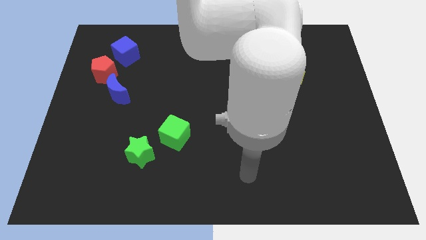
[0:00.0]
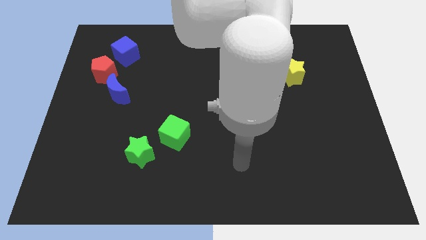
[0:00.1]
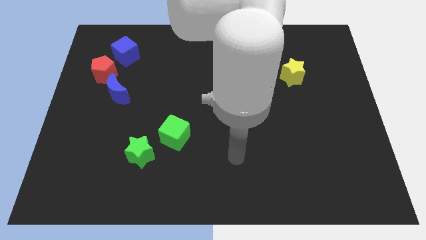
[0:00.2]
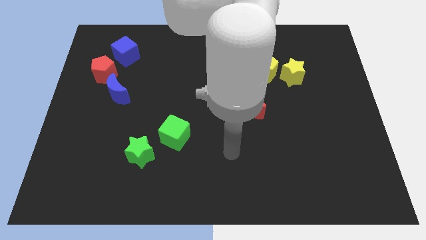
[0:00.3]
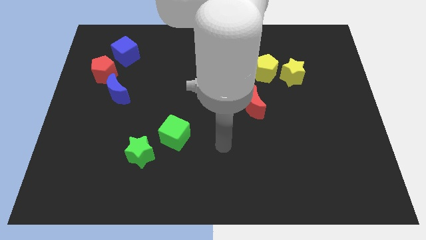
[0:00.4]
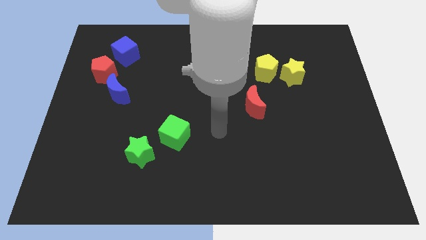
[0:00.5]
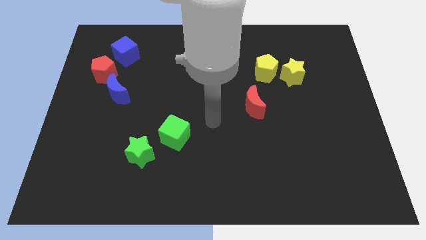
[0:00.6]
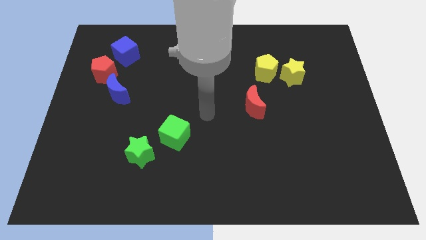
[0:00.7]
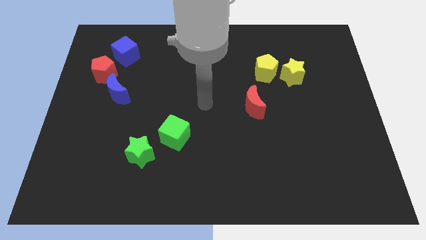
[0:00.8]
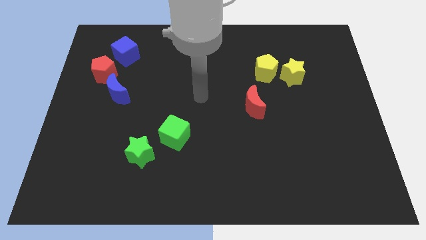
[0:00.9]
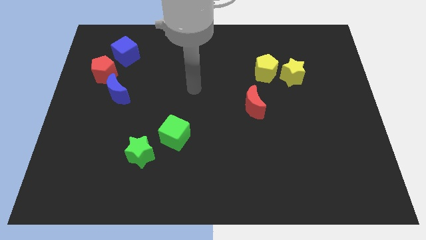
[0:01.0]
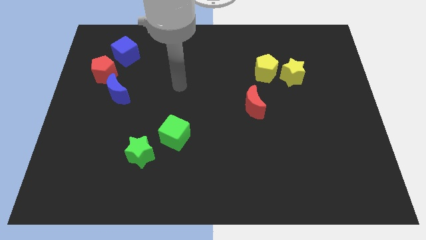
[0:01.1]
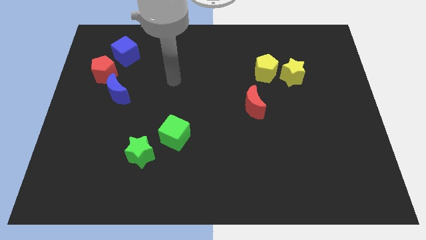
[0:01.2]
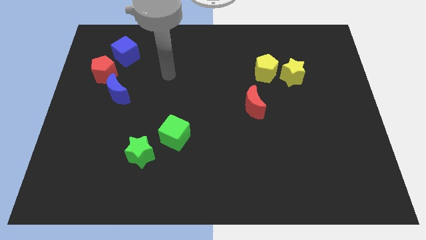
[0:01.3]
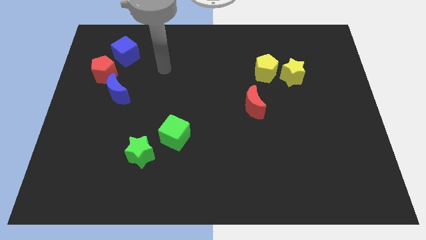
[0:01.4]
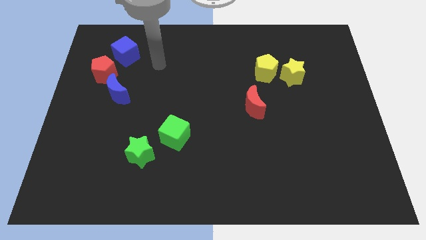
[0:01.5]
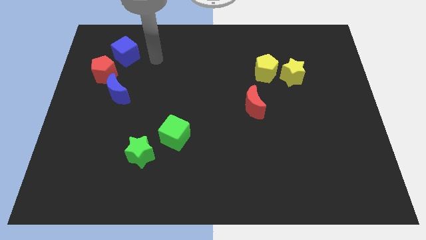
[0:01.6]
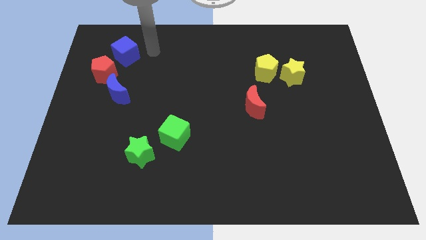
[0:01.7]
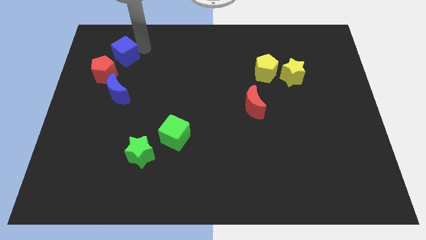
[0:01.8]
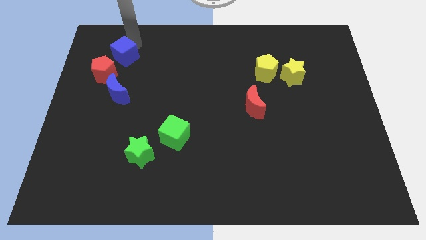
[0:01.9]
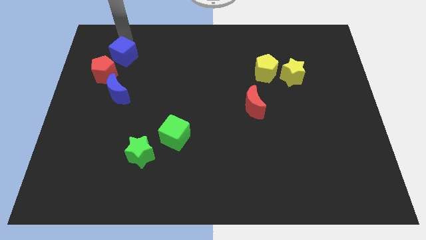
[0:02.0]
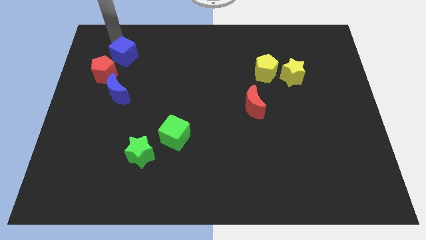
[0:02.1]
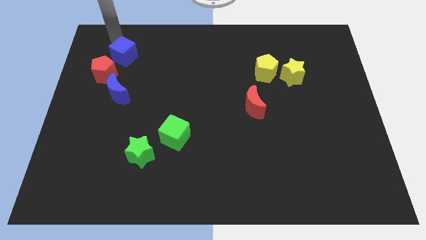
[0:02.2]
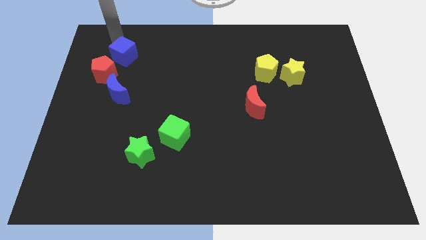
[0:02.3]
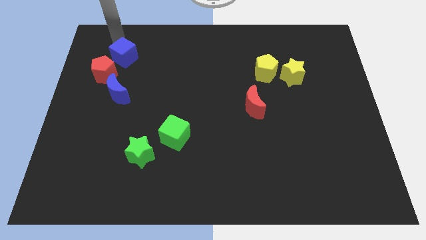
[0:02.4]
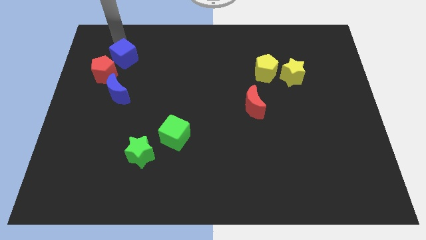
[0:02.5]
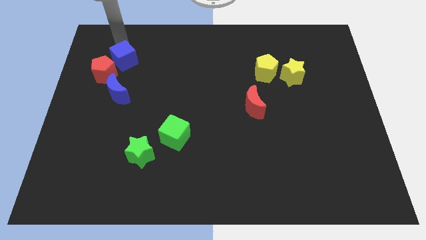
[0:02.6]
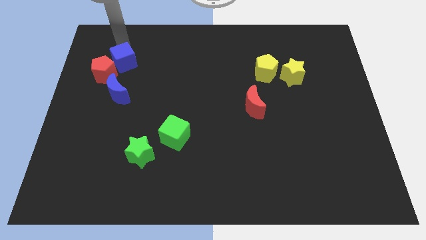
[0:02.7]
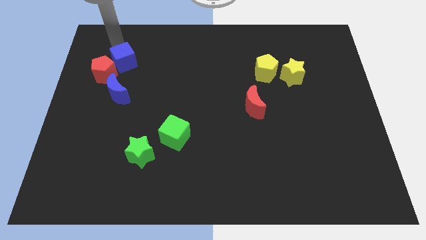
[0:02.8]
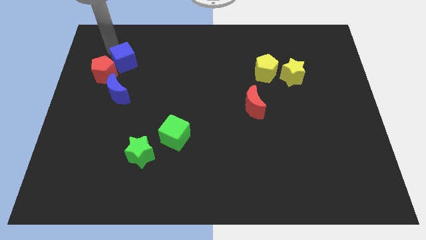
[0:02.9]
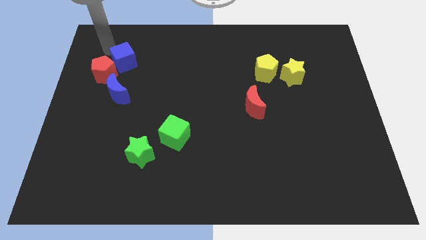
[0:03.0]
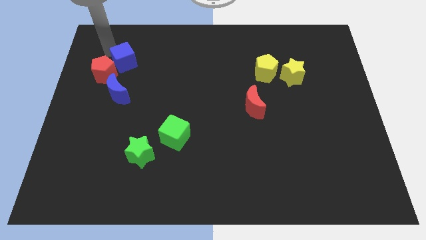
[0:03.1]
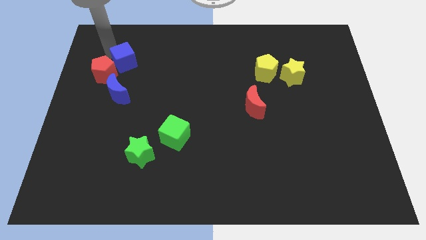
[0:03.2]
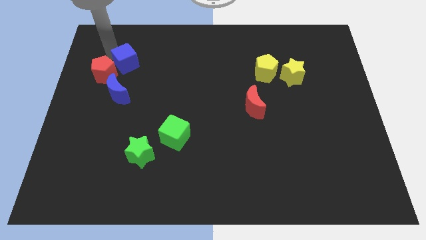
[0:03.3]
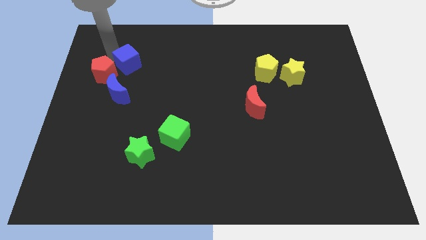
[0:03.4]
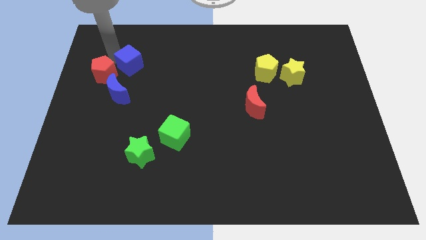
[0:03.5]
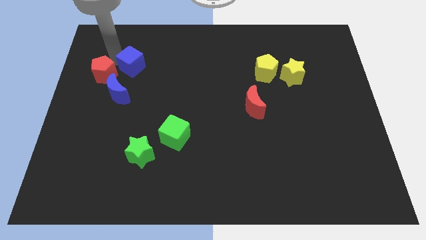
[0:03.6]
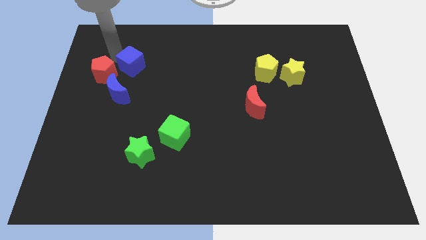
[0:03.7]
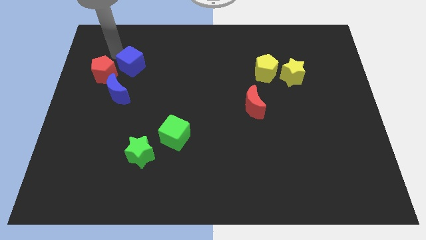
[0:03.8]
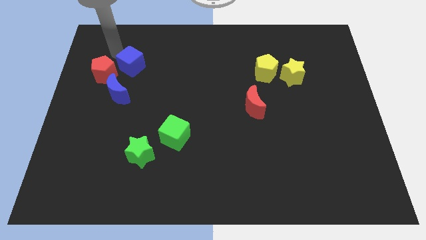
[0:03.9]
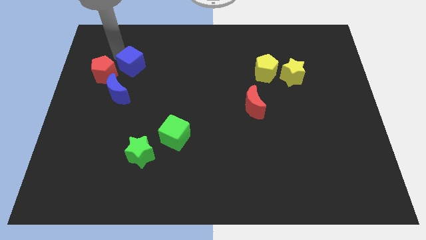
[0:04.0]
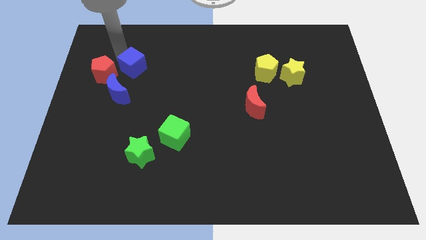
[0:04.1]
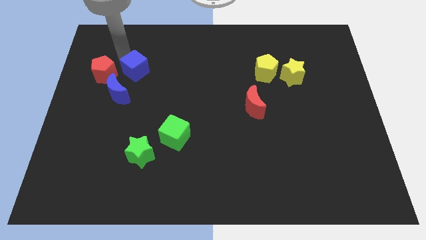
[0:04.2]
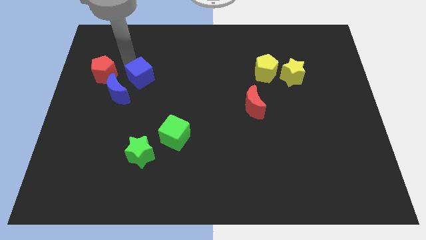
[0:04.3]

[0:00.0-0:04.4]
move the blue cube downwards and right diagonally a bit

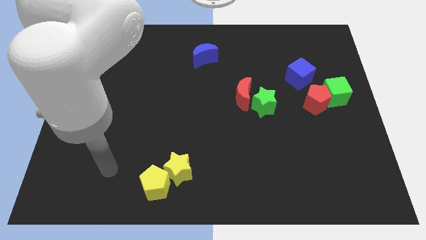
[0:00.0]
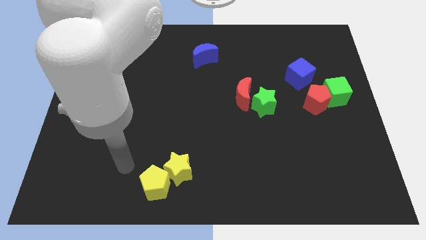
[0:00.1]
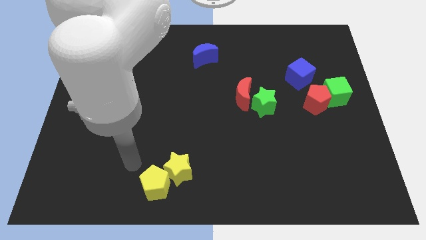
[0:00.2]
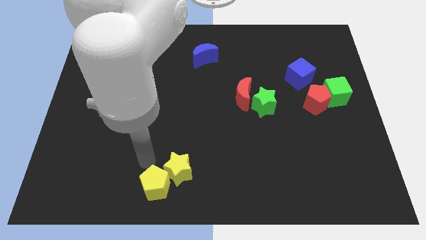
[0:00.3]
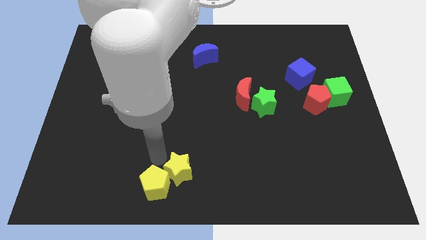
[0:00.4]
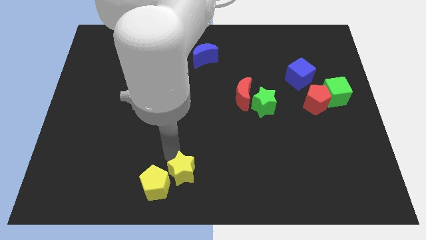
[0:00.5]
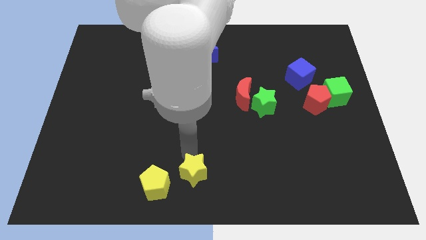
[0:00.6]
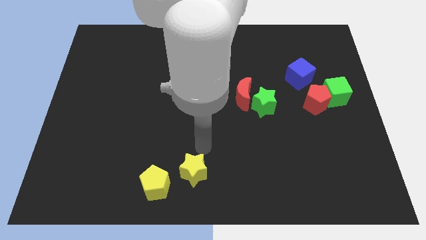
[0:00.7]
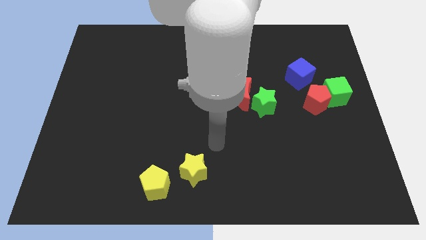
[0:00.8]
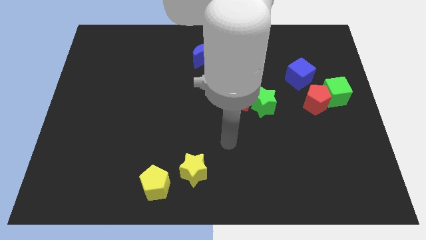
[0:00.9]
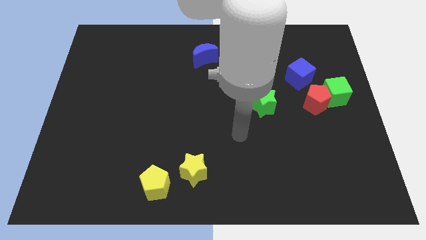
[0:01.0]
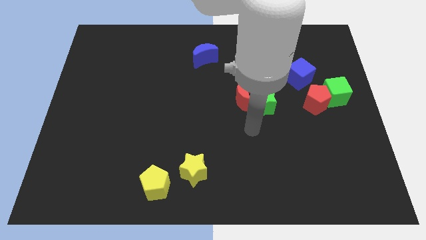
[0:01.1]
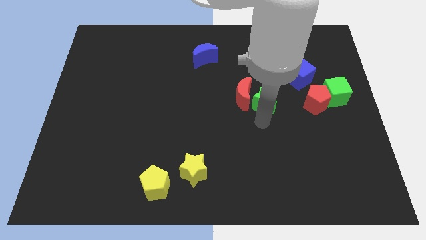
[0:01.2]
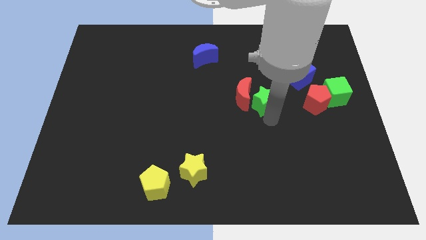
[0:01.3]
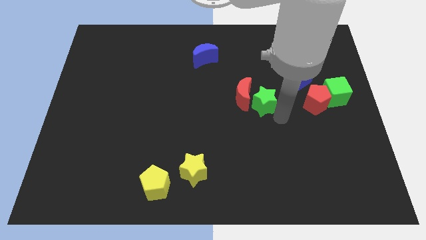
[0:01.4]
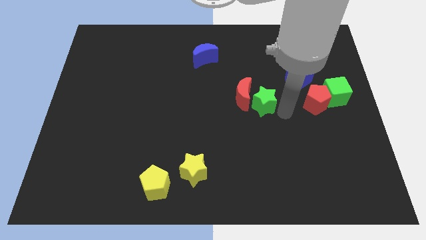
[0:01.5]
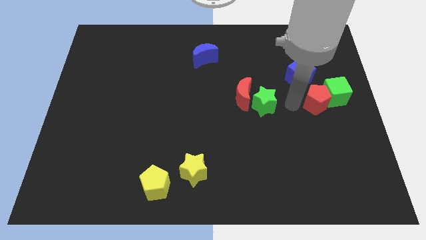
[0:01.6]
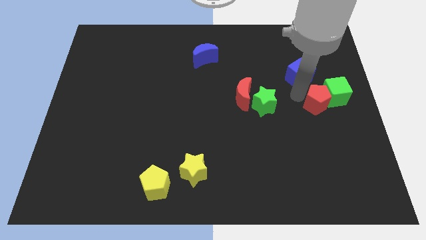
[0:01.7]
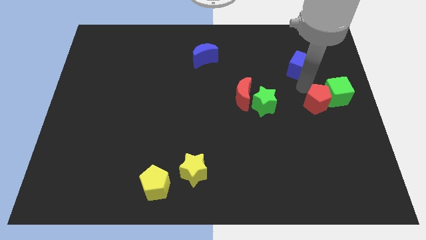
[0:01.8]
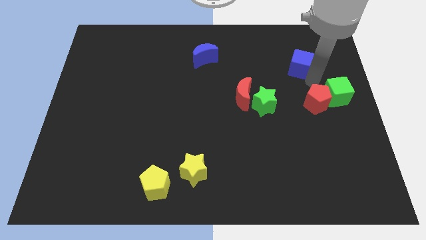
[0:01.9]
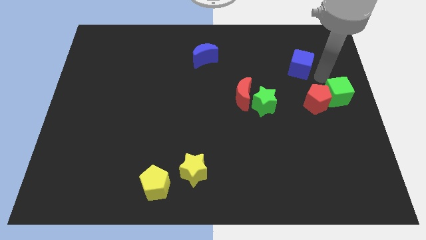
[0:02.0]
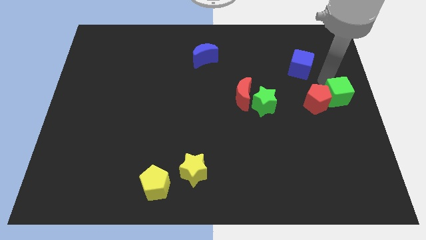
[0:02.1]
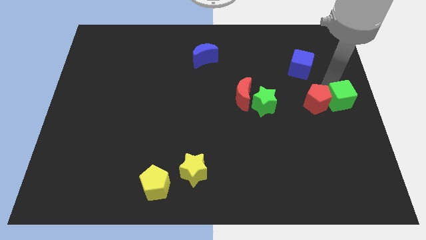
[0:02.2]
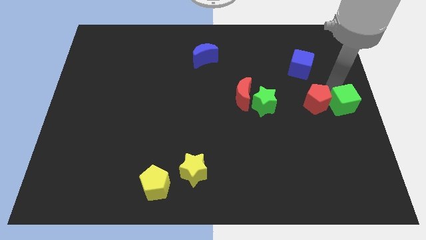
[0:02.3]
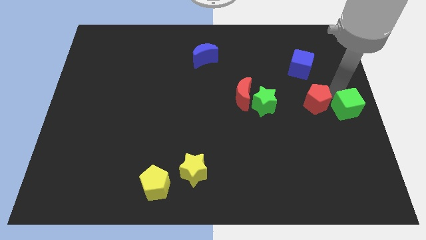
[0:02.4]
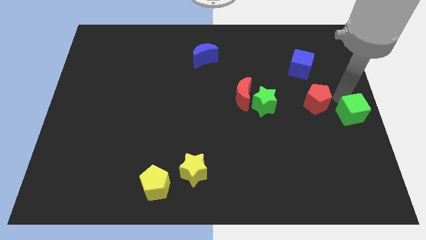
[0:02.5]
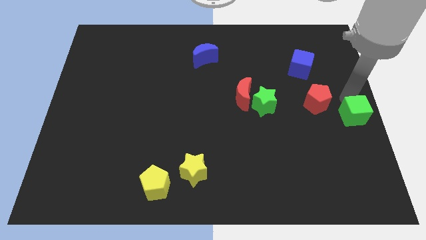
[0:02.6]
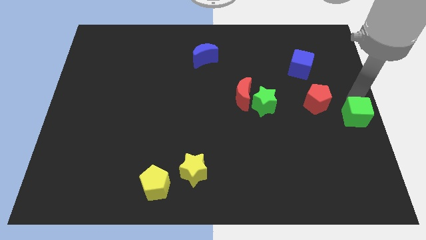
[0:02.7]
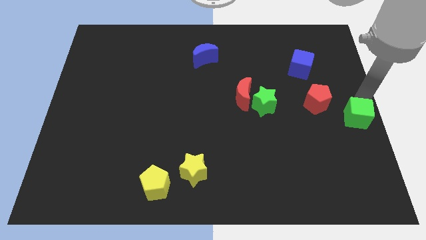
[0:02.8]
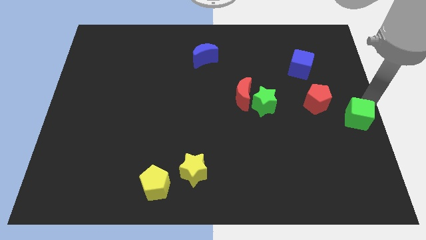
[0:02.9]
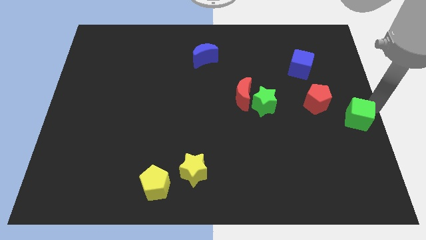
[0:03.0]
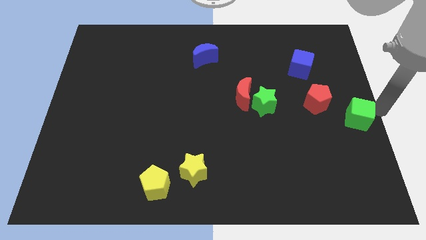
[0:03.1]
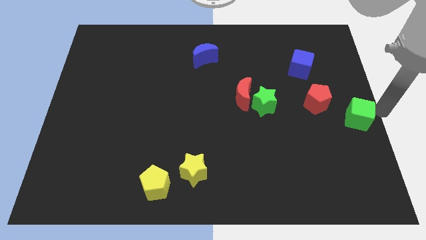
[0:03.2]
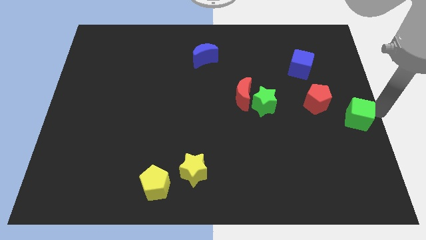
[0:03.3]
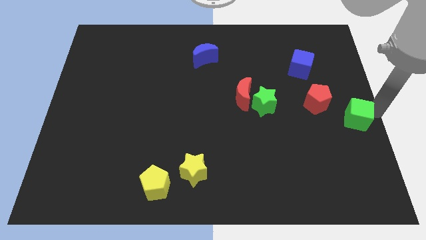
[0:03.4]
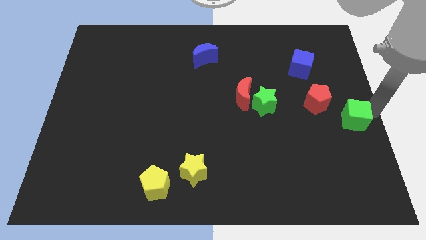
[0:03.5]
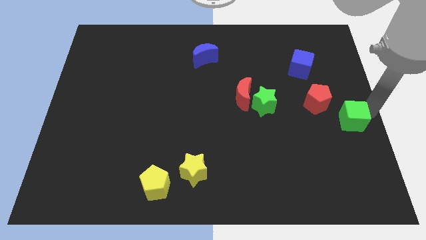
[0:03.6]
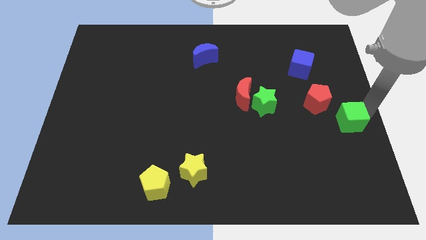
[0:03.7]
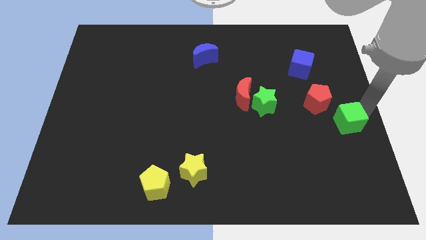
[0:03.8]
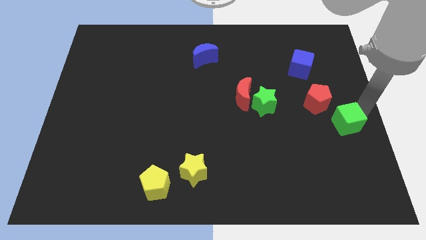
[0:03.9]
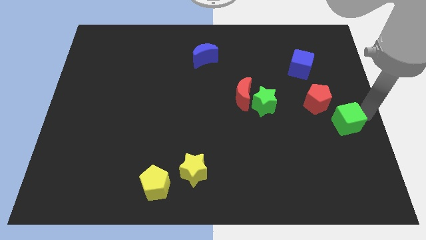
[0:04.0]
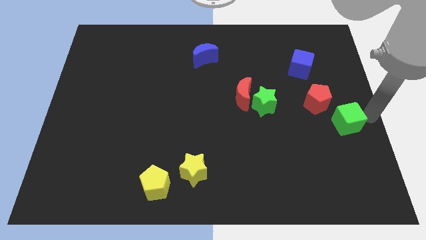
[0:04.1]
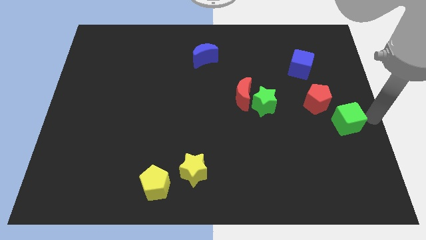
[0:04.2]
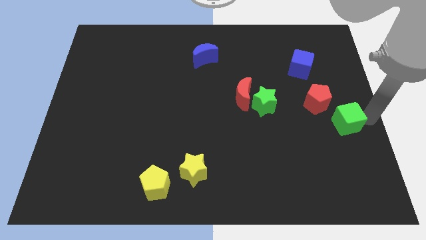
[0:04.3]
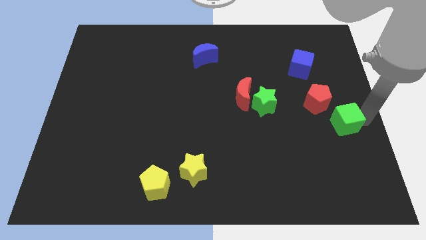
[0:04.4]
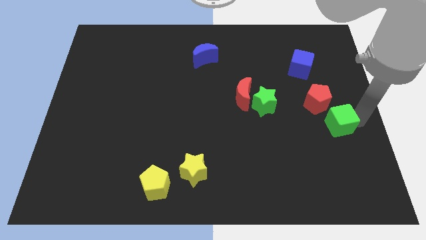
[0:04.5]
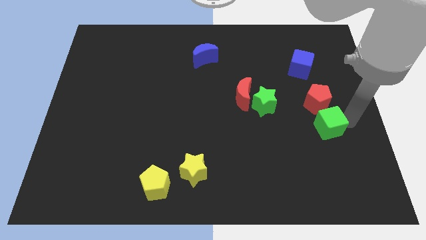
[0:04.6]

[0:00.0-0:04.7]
move the green cube a little down and then to the left
